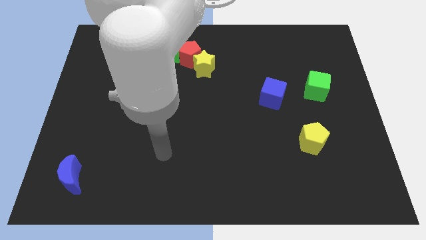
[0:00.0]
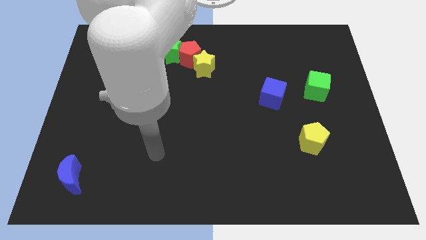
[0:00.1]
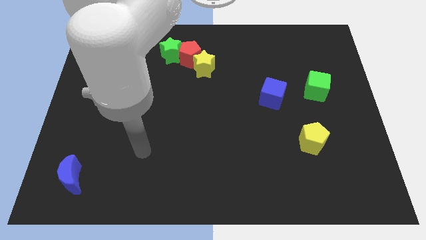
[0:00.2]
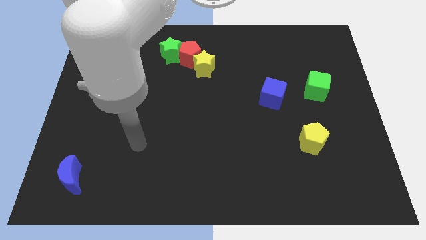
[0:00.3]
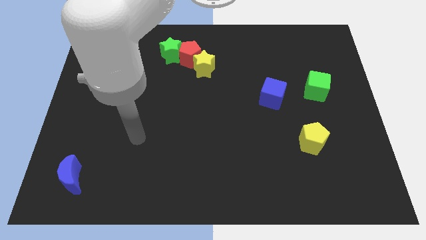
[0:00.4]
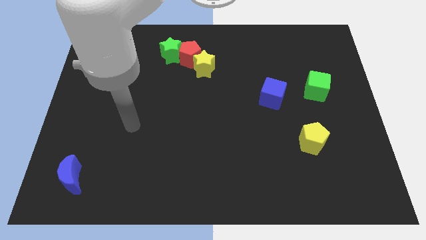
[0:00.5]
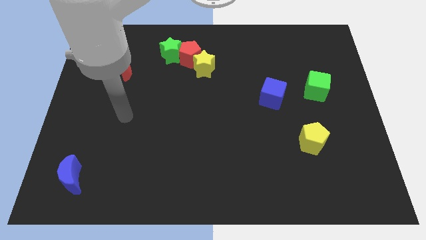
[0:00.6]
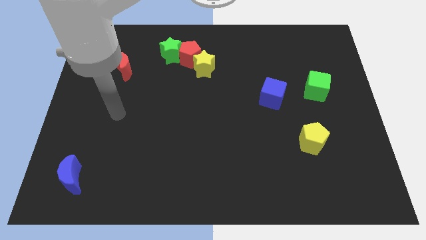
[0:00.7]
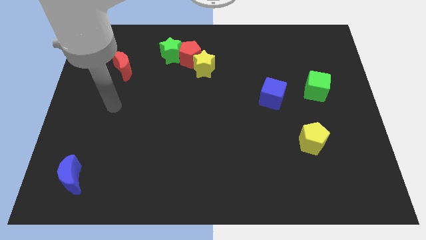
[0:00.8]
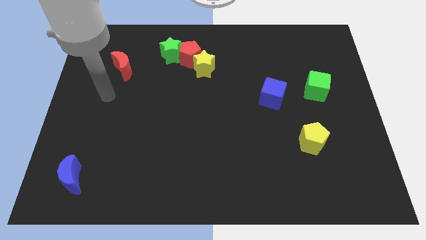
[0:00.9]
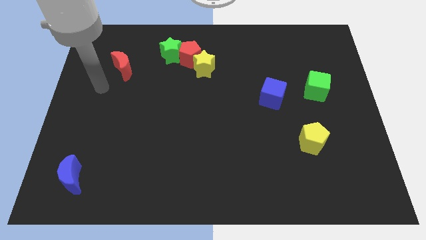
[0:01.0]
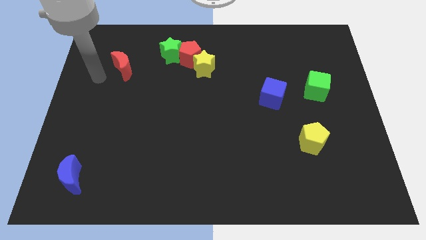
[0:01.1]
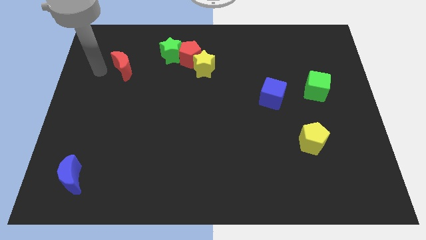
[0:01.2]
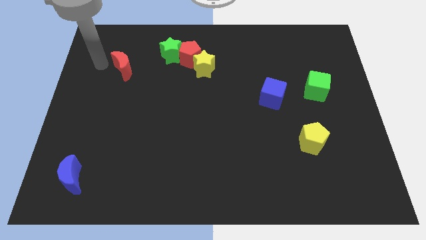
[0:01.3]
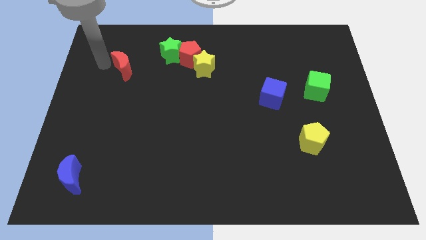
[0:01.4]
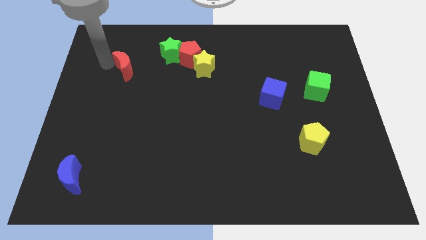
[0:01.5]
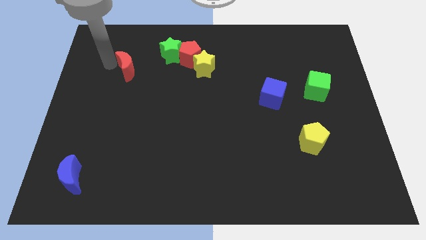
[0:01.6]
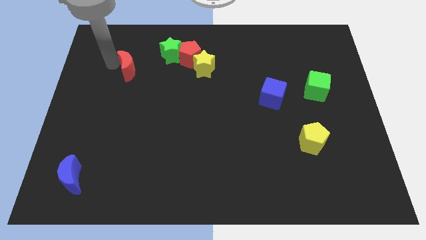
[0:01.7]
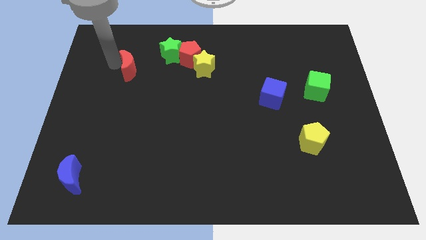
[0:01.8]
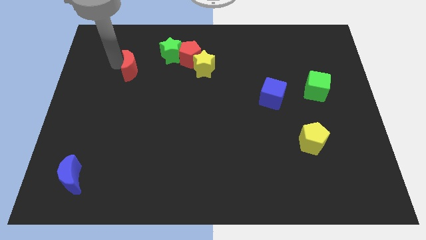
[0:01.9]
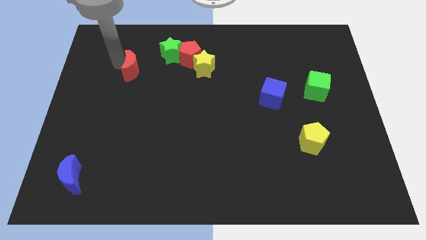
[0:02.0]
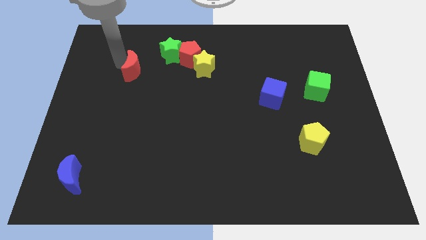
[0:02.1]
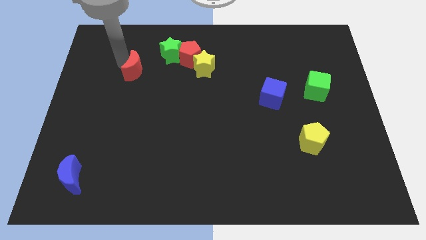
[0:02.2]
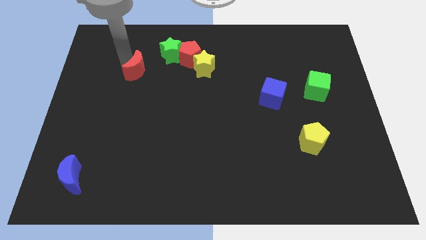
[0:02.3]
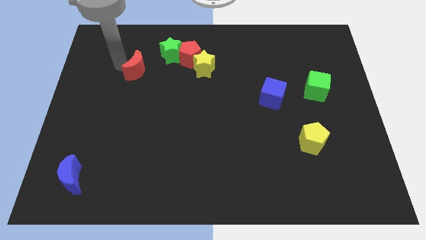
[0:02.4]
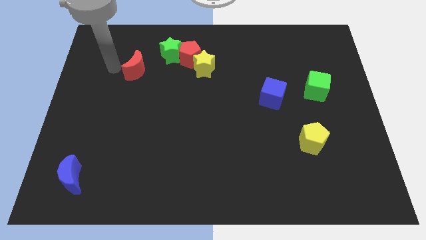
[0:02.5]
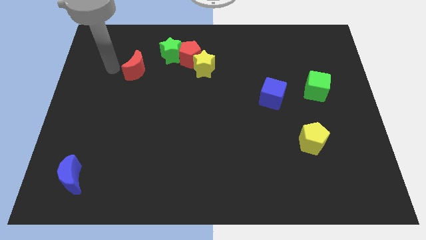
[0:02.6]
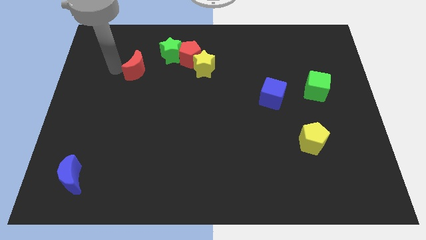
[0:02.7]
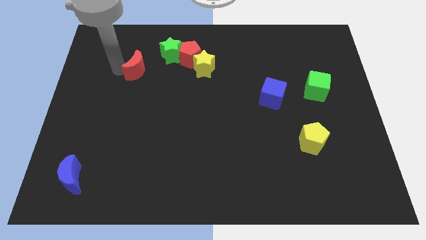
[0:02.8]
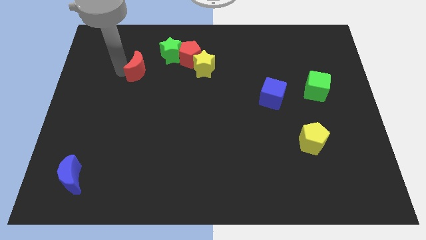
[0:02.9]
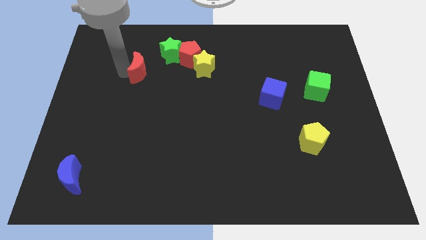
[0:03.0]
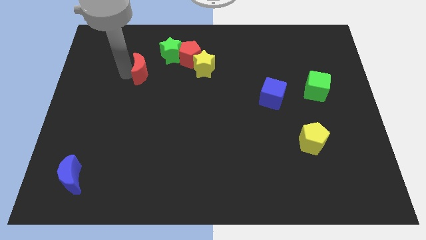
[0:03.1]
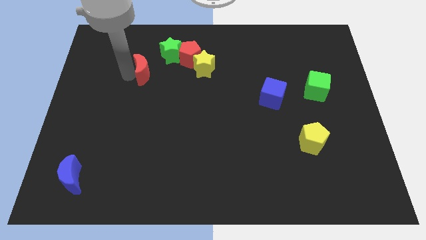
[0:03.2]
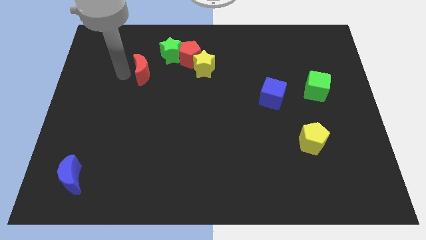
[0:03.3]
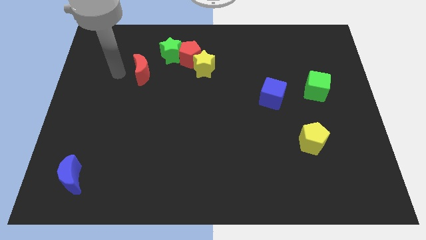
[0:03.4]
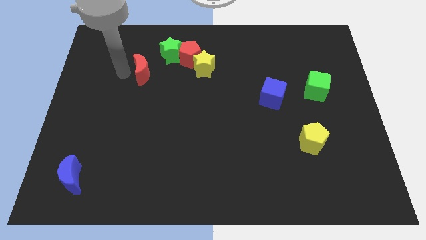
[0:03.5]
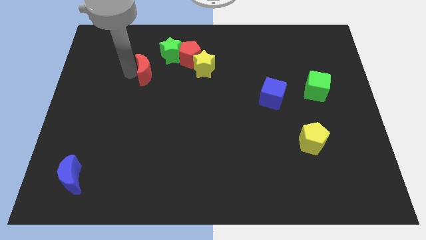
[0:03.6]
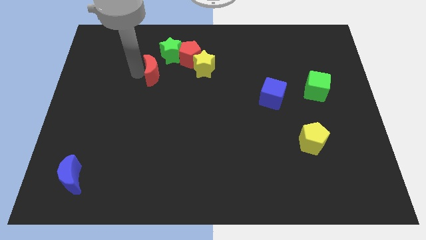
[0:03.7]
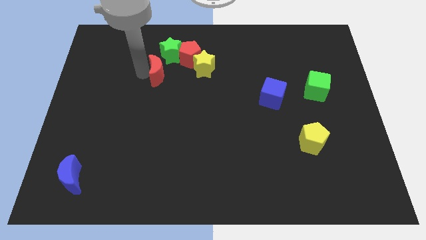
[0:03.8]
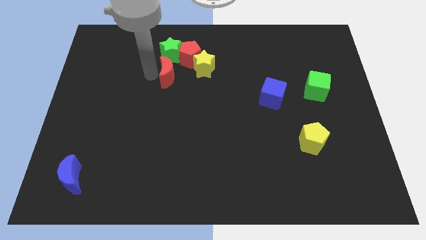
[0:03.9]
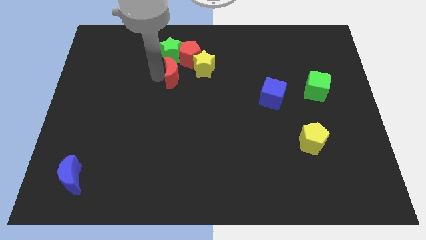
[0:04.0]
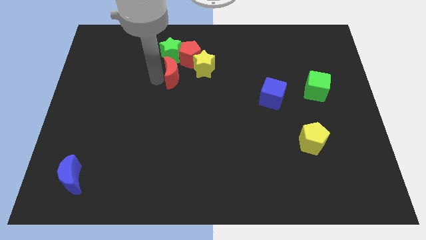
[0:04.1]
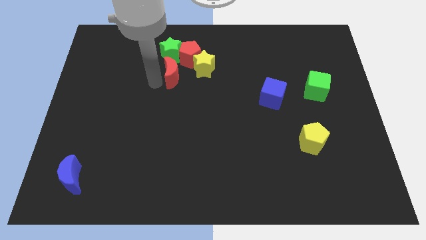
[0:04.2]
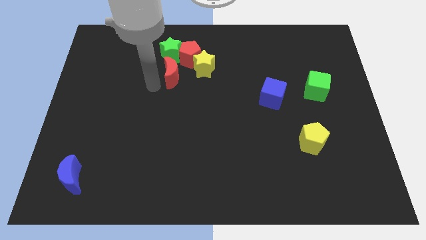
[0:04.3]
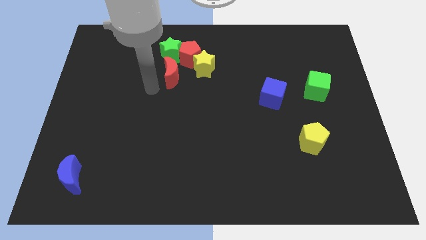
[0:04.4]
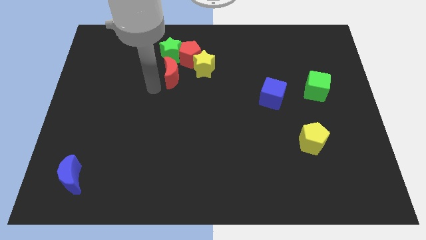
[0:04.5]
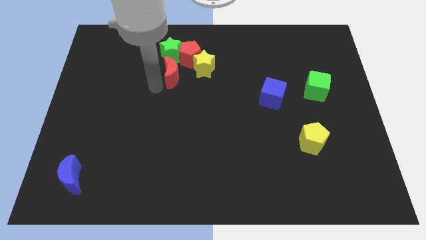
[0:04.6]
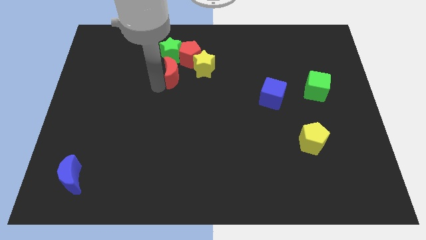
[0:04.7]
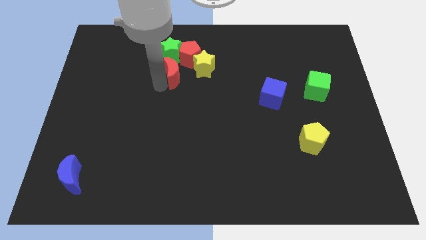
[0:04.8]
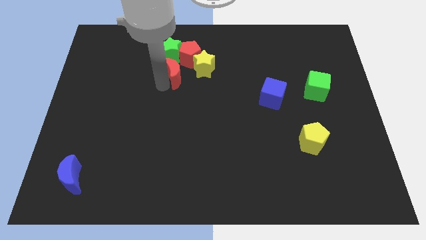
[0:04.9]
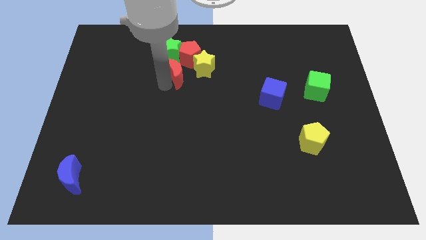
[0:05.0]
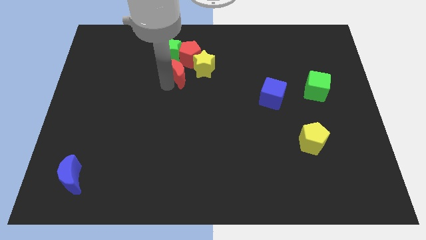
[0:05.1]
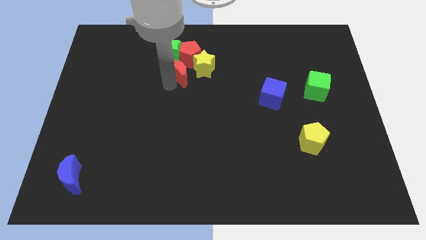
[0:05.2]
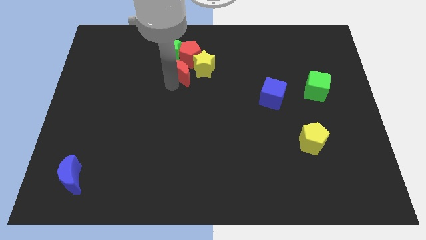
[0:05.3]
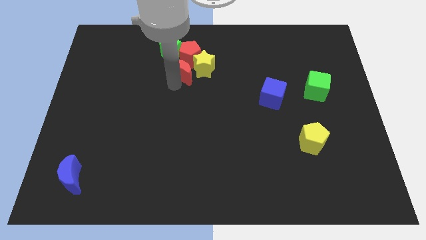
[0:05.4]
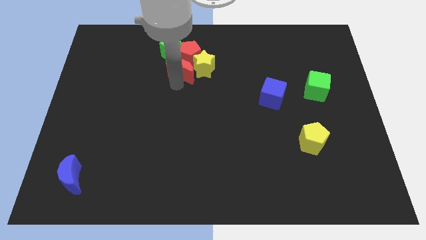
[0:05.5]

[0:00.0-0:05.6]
slide the red moon towards the red pentagon

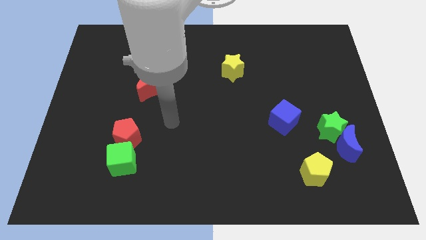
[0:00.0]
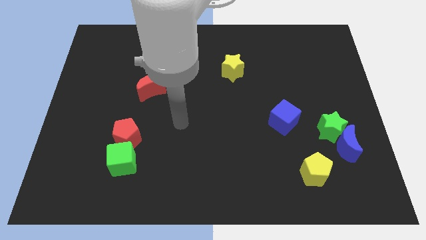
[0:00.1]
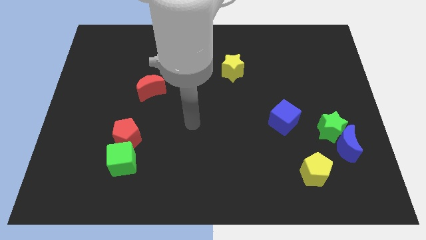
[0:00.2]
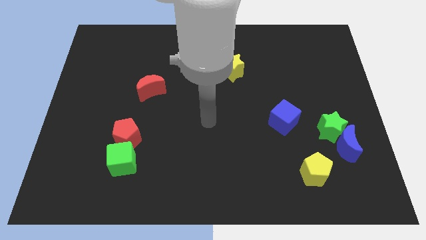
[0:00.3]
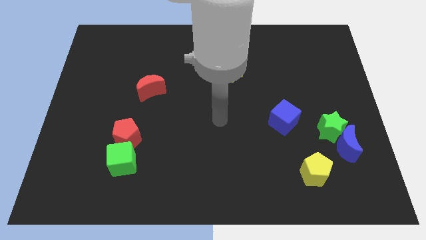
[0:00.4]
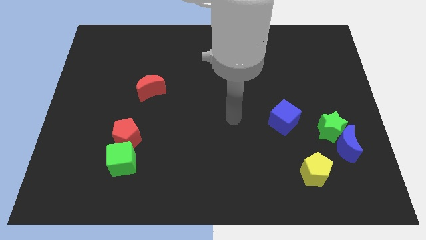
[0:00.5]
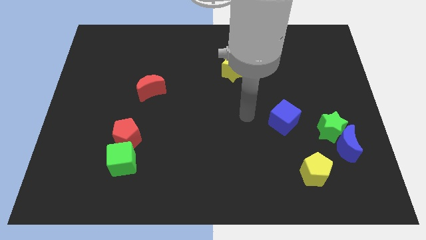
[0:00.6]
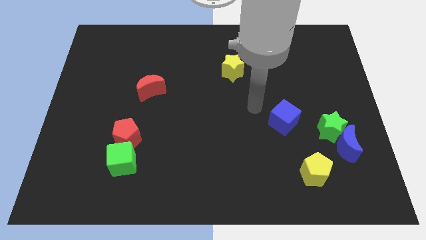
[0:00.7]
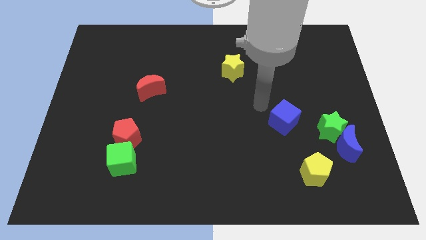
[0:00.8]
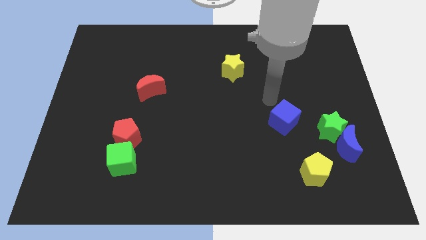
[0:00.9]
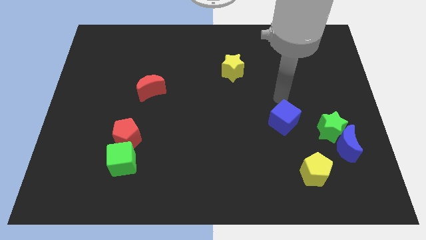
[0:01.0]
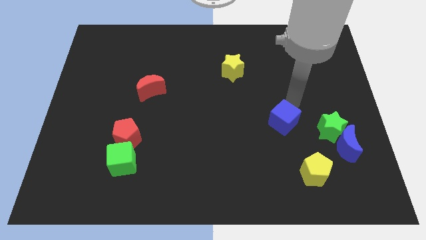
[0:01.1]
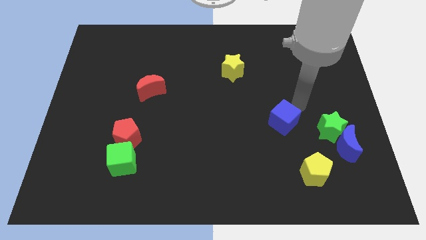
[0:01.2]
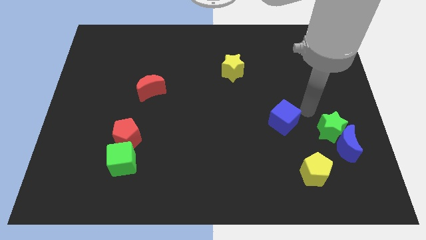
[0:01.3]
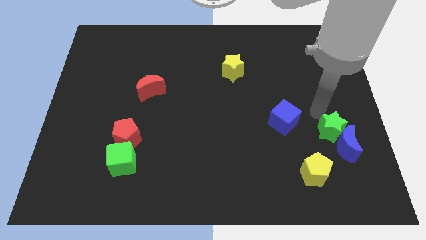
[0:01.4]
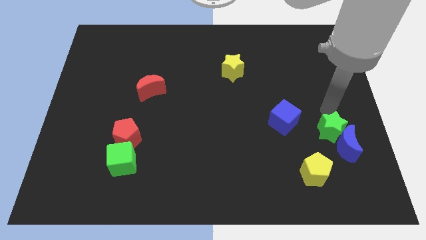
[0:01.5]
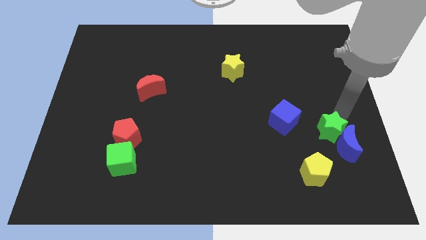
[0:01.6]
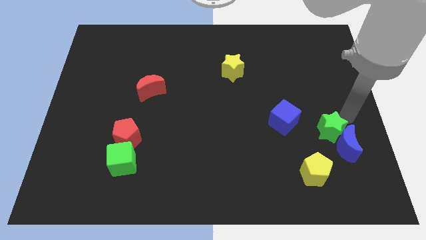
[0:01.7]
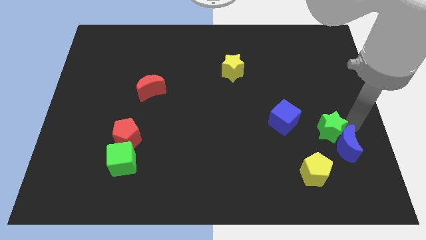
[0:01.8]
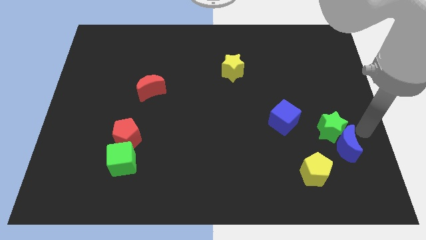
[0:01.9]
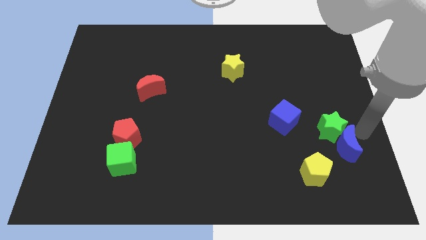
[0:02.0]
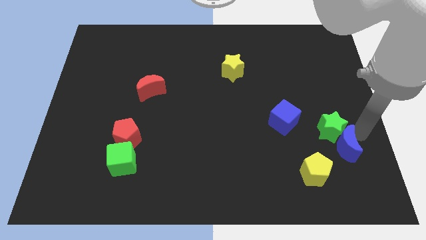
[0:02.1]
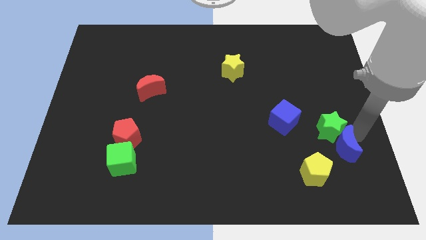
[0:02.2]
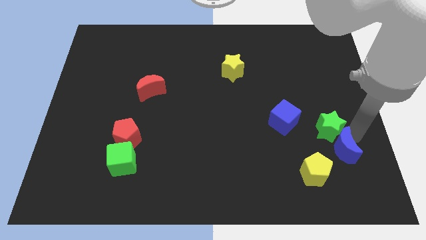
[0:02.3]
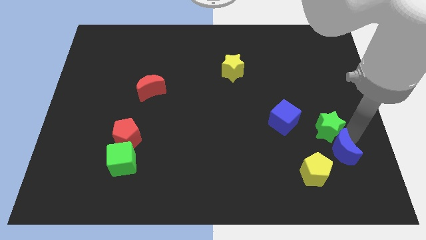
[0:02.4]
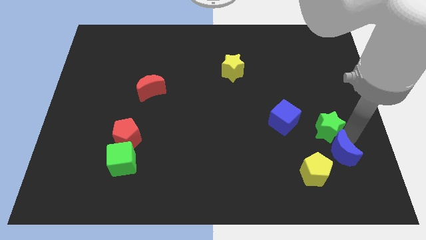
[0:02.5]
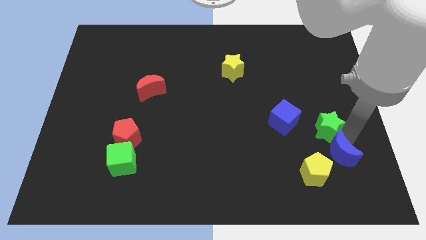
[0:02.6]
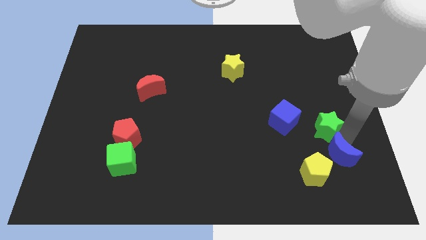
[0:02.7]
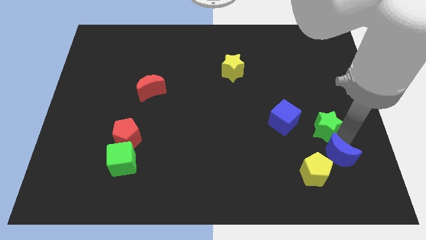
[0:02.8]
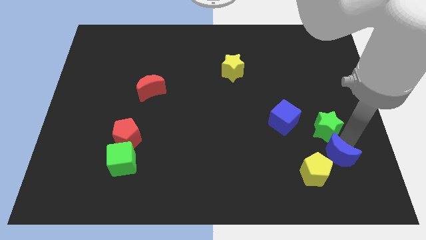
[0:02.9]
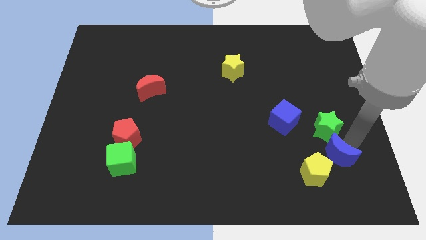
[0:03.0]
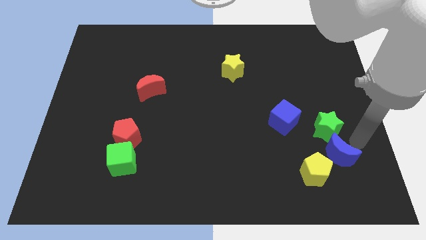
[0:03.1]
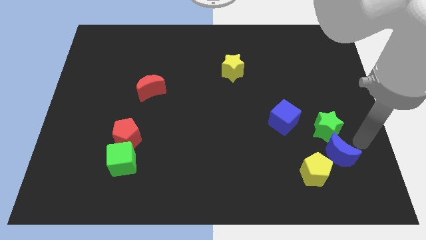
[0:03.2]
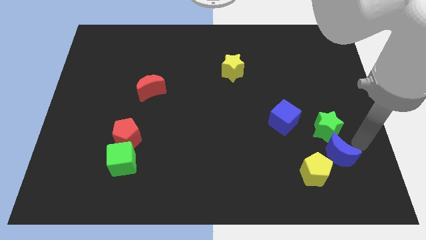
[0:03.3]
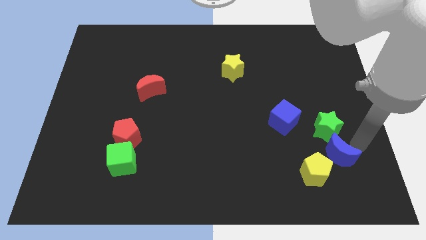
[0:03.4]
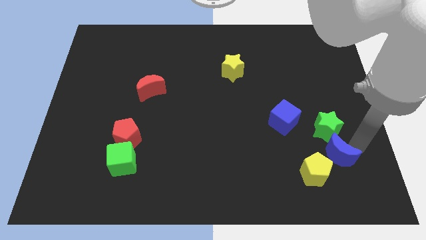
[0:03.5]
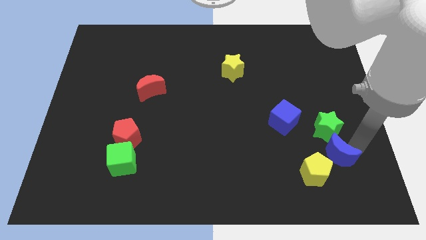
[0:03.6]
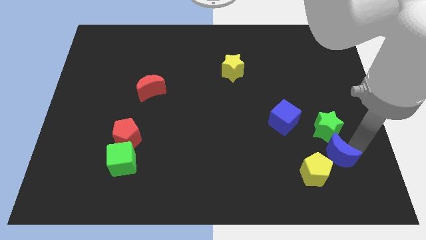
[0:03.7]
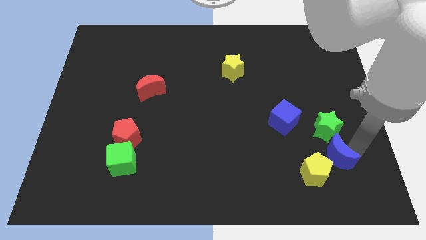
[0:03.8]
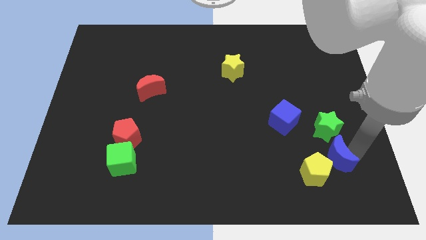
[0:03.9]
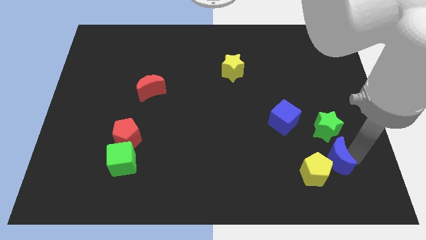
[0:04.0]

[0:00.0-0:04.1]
put the blue moon close to the yellow pentagon
